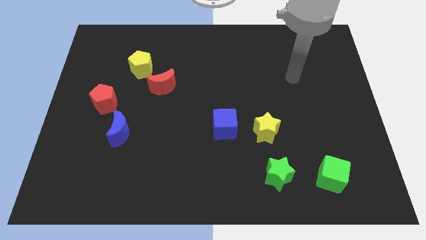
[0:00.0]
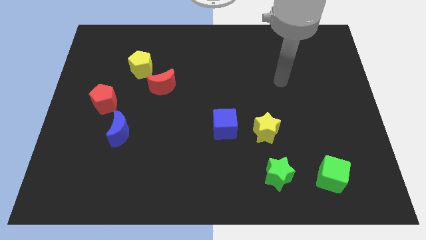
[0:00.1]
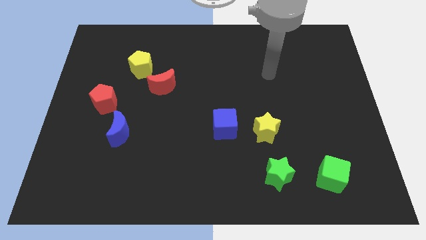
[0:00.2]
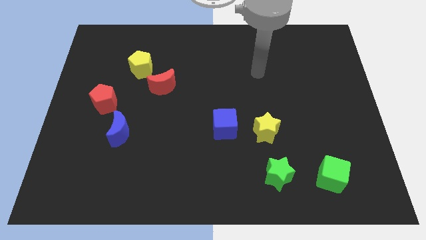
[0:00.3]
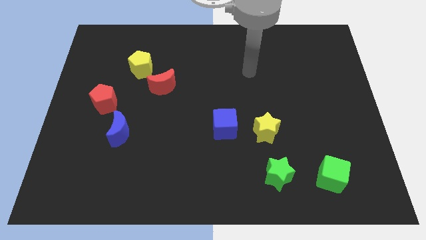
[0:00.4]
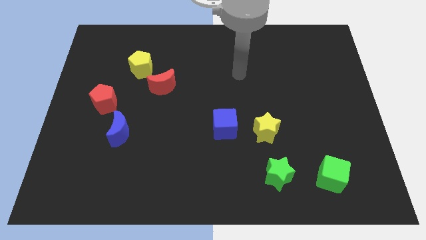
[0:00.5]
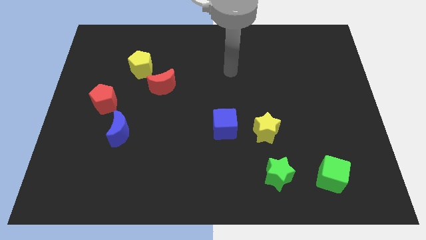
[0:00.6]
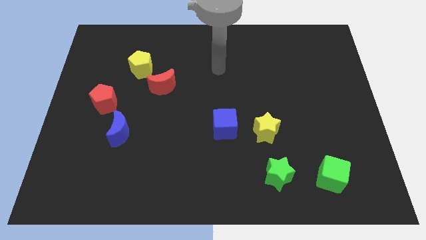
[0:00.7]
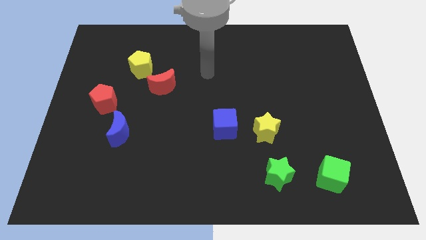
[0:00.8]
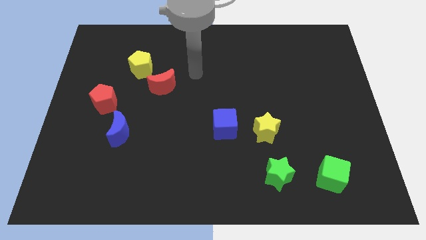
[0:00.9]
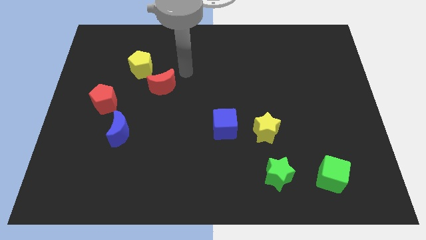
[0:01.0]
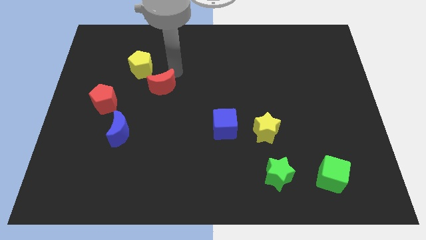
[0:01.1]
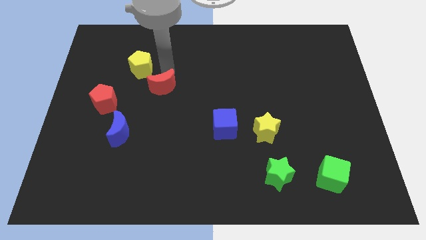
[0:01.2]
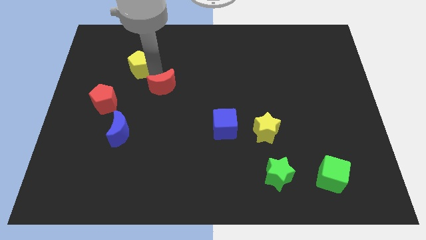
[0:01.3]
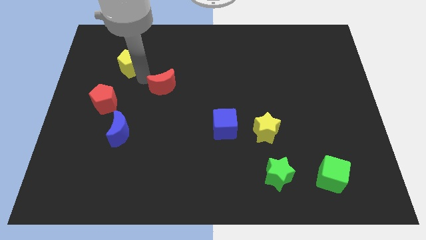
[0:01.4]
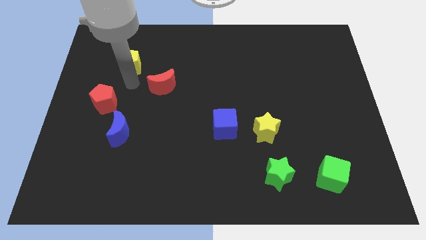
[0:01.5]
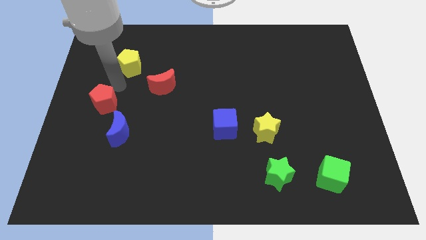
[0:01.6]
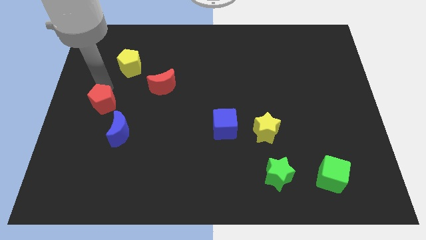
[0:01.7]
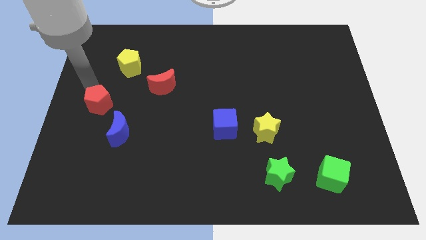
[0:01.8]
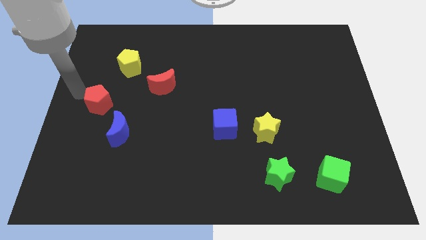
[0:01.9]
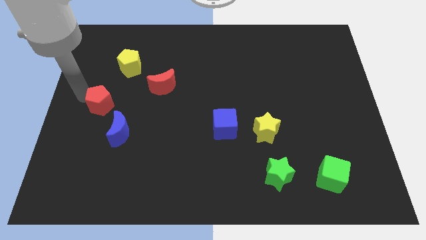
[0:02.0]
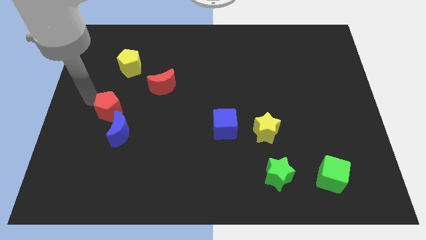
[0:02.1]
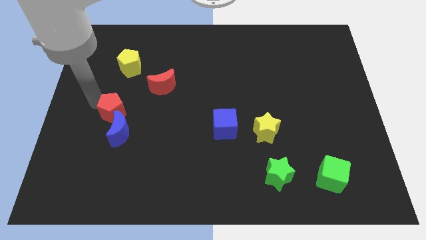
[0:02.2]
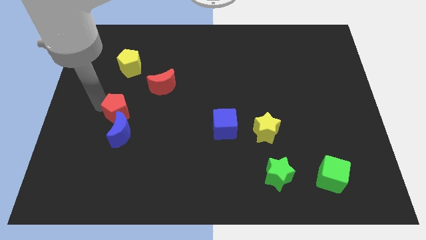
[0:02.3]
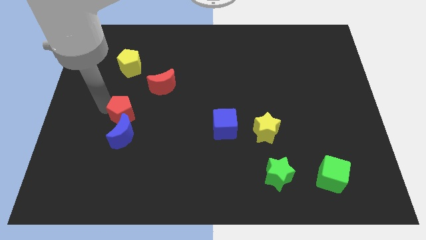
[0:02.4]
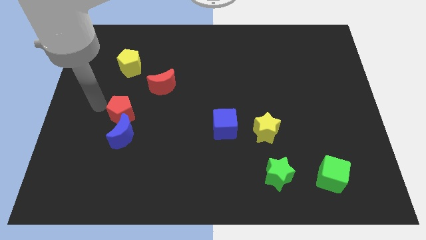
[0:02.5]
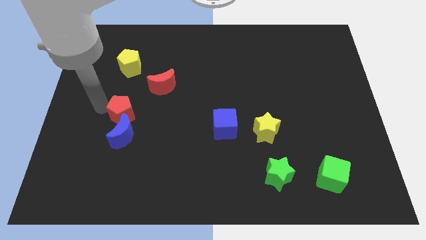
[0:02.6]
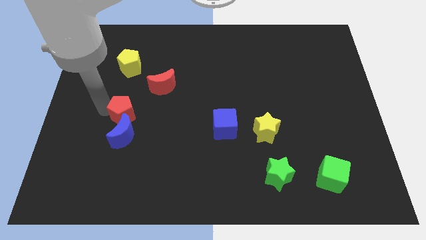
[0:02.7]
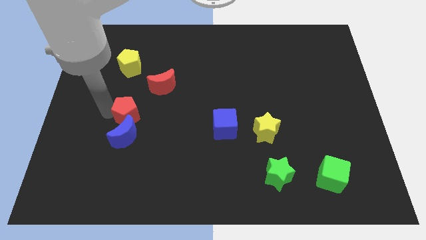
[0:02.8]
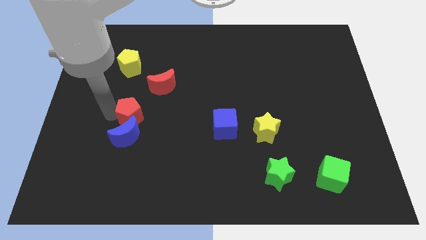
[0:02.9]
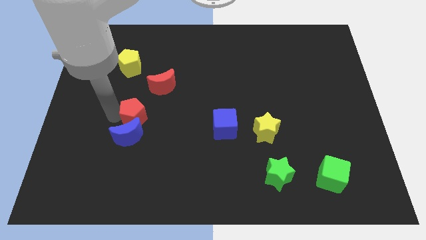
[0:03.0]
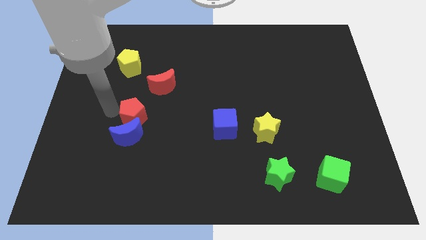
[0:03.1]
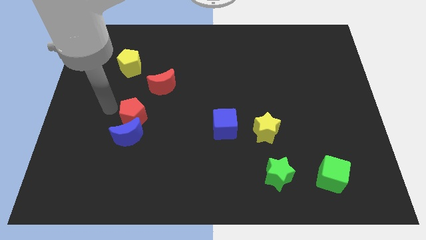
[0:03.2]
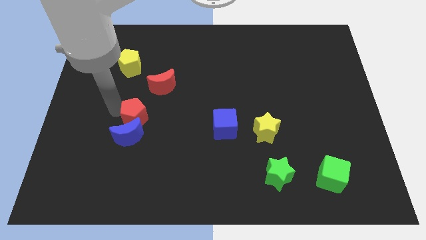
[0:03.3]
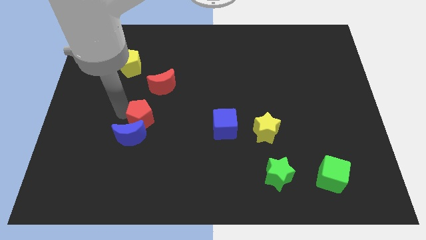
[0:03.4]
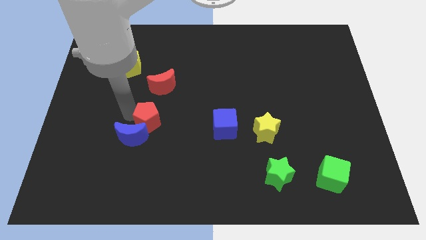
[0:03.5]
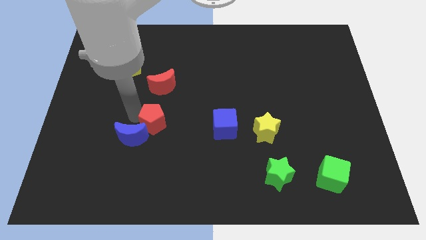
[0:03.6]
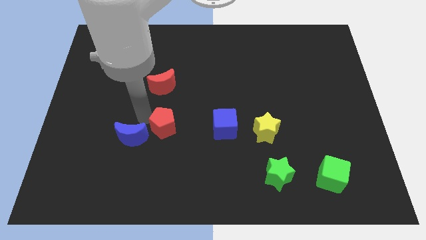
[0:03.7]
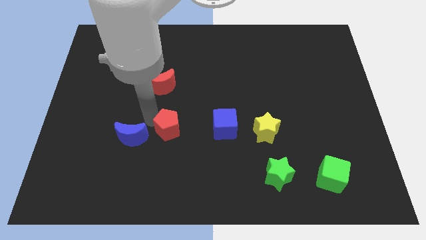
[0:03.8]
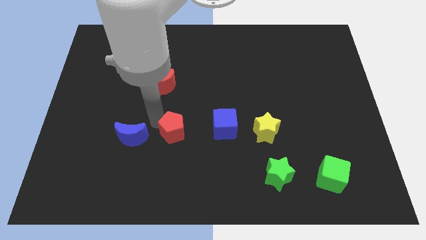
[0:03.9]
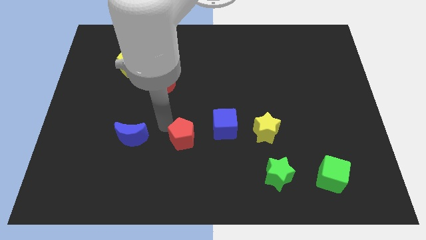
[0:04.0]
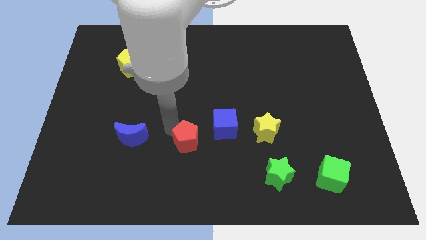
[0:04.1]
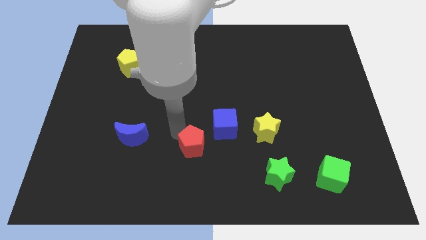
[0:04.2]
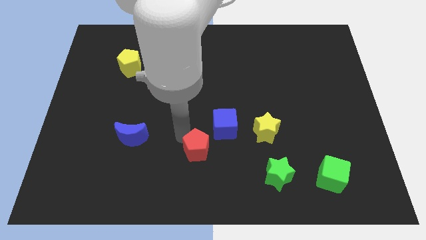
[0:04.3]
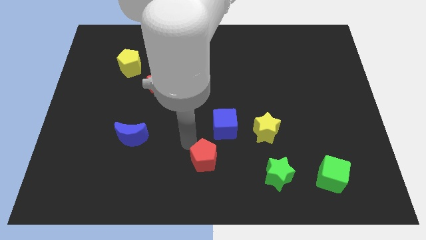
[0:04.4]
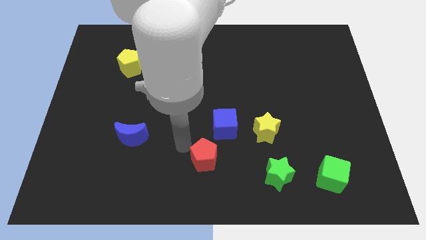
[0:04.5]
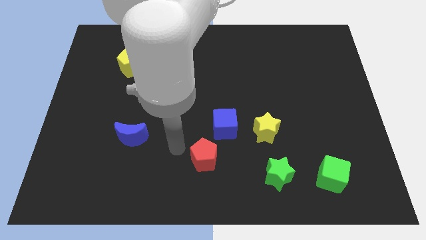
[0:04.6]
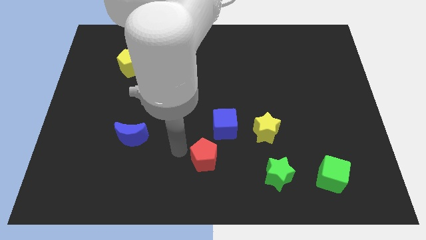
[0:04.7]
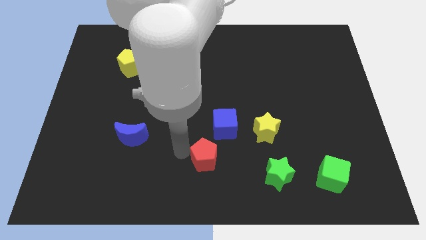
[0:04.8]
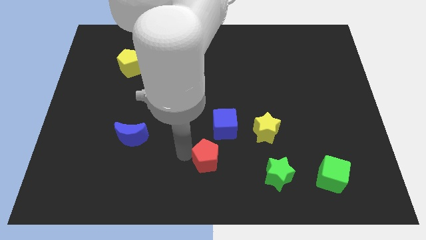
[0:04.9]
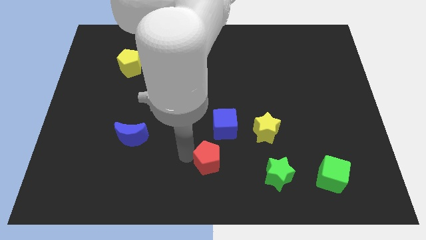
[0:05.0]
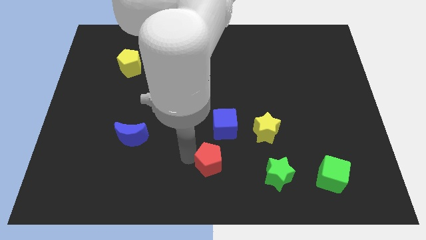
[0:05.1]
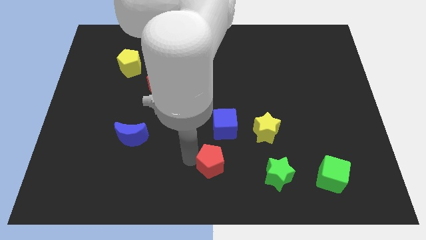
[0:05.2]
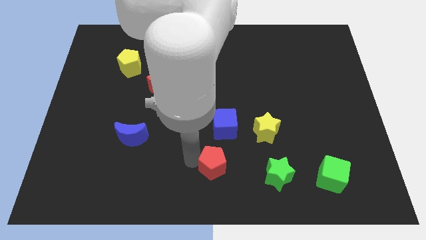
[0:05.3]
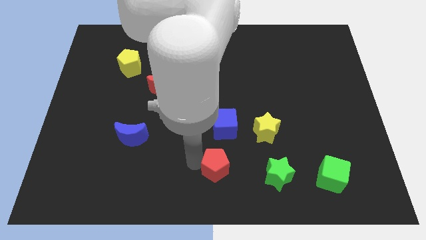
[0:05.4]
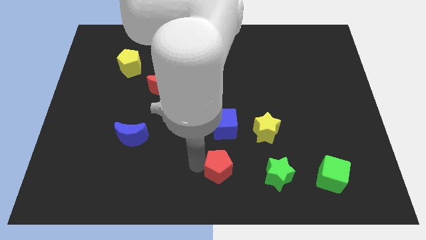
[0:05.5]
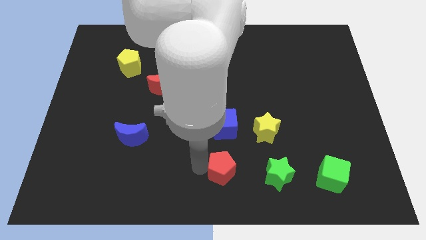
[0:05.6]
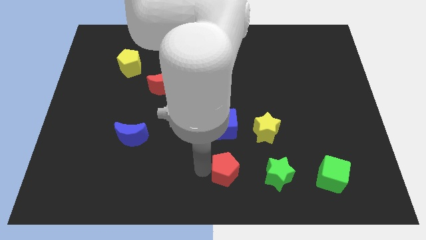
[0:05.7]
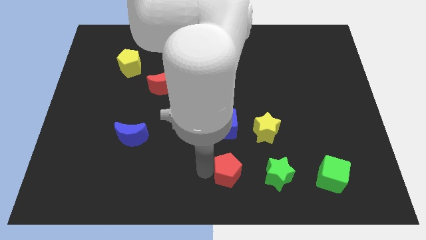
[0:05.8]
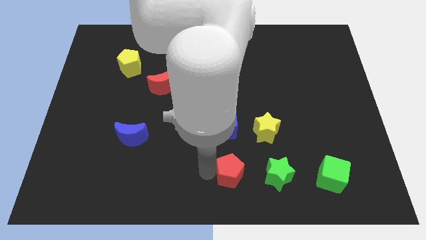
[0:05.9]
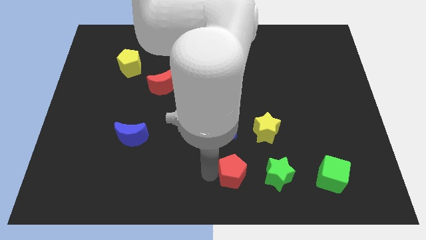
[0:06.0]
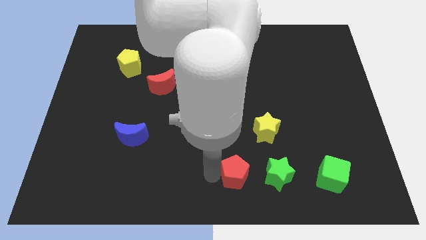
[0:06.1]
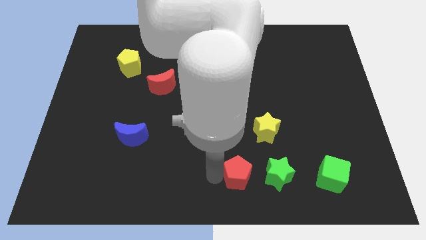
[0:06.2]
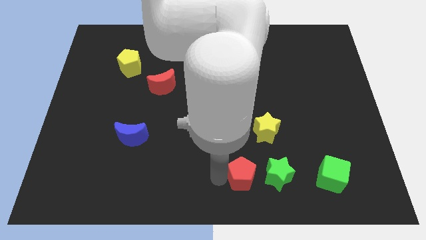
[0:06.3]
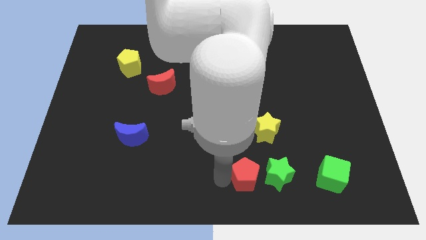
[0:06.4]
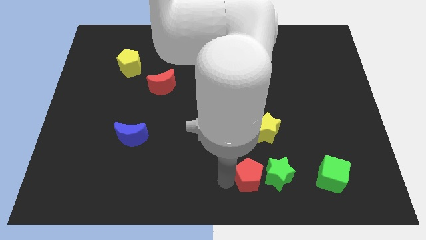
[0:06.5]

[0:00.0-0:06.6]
put the red pentagon towards the green star
